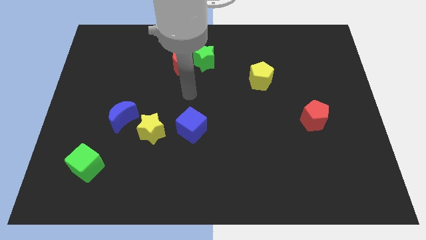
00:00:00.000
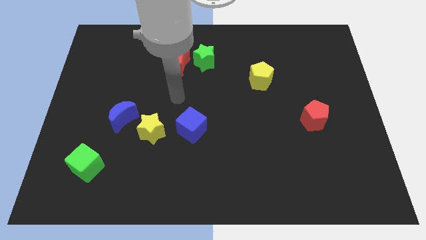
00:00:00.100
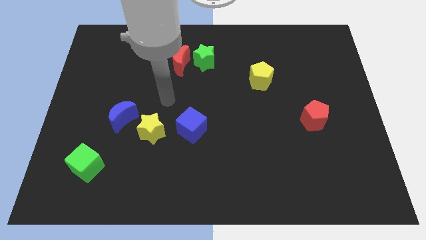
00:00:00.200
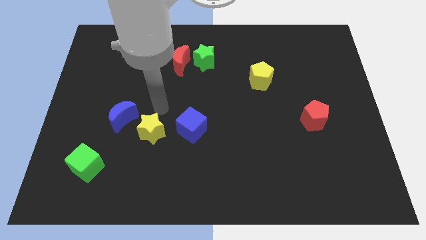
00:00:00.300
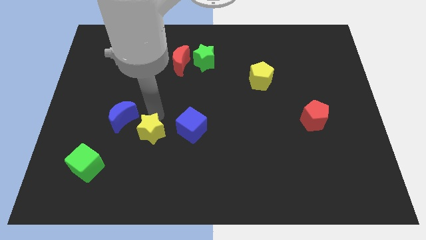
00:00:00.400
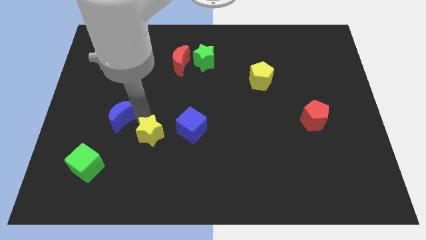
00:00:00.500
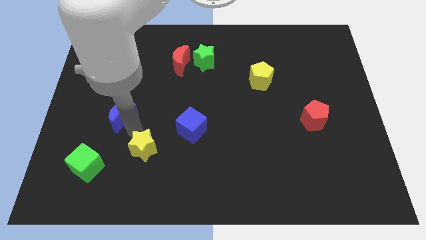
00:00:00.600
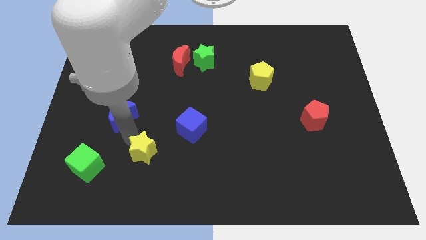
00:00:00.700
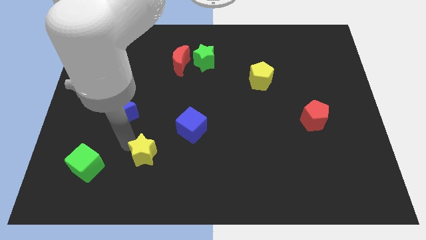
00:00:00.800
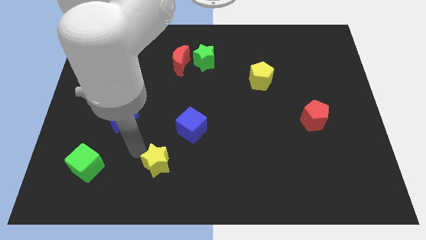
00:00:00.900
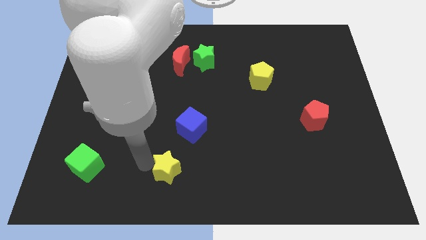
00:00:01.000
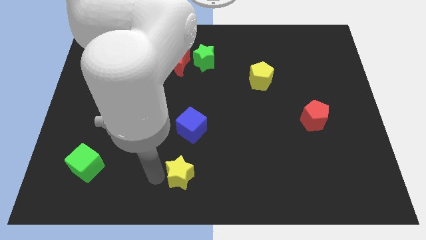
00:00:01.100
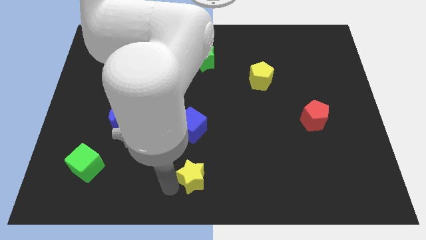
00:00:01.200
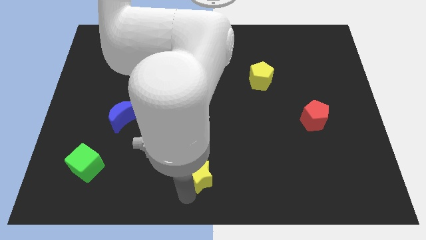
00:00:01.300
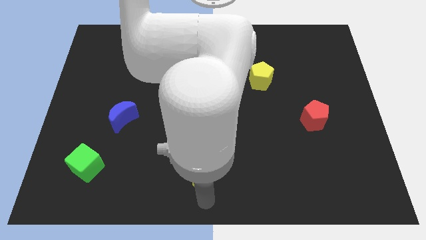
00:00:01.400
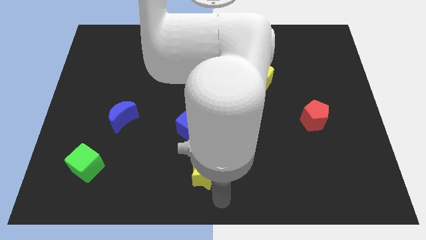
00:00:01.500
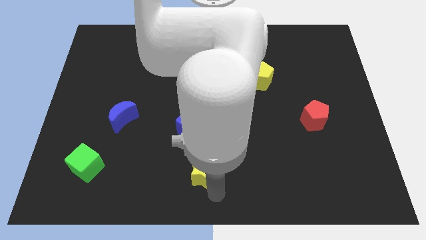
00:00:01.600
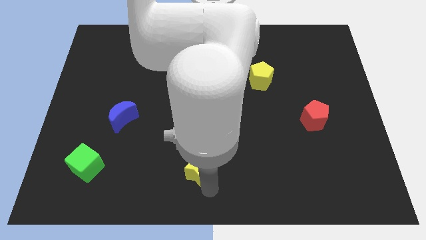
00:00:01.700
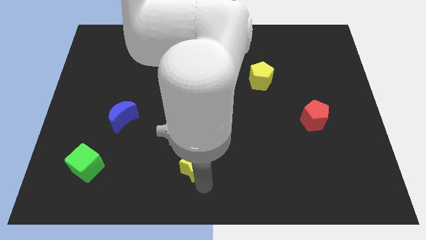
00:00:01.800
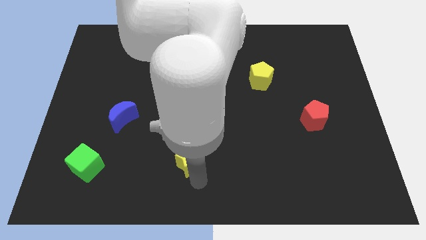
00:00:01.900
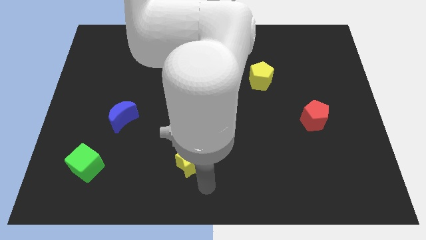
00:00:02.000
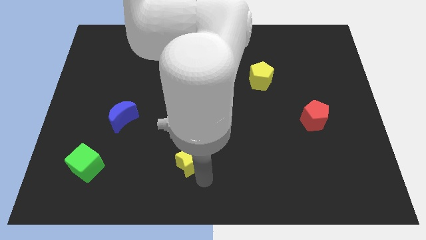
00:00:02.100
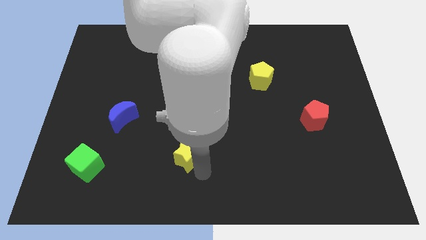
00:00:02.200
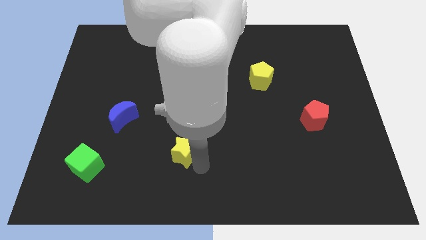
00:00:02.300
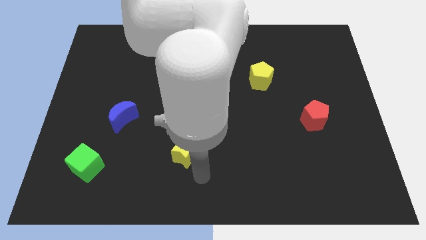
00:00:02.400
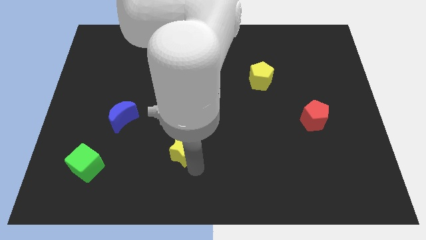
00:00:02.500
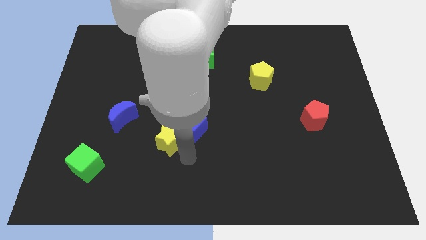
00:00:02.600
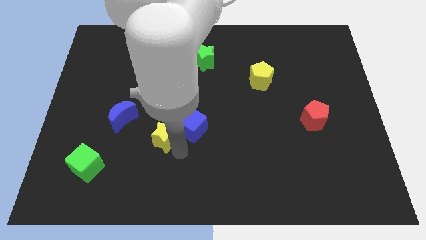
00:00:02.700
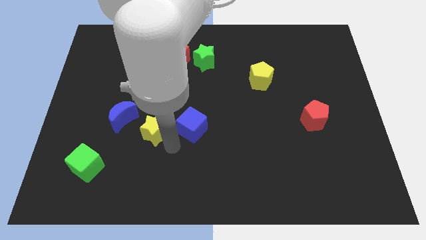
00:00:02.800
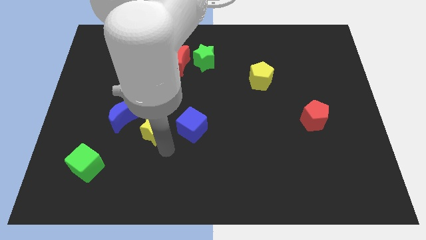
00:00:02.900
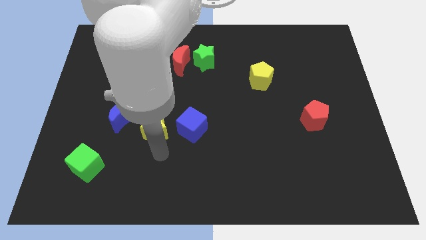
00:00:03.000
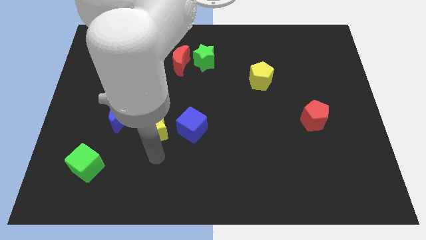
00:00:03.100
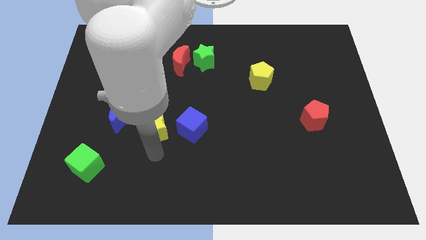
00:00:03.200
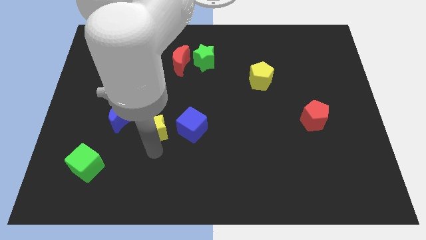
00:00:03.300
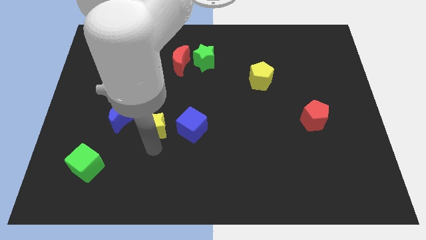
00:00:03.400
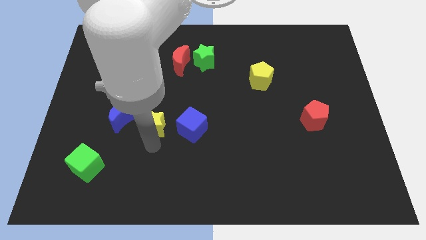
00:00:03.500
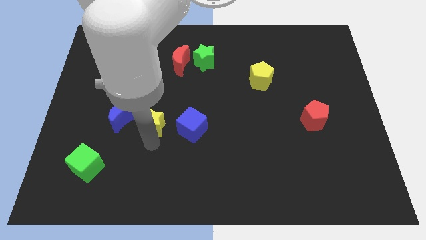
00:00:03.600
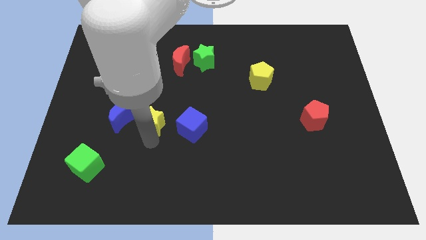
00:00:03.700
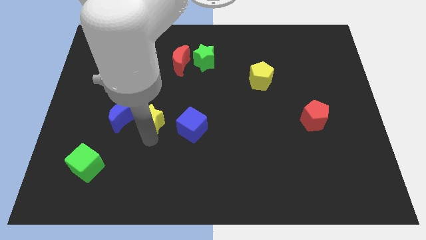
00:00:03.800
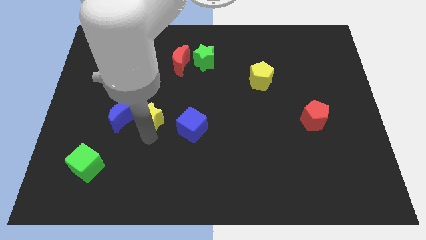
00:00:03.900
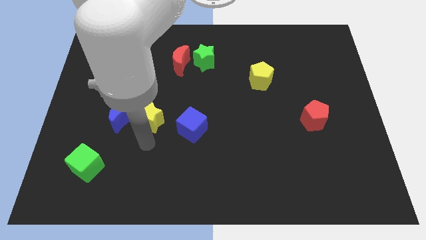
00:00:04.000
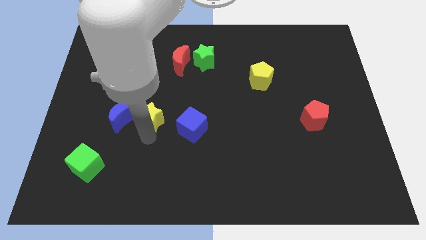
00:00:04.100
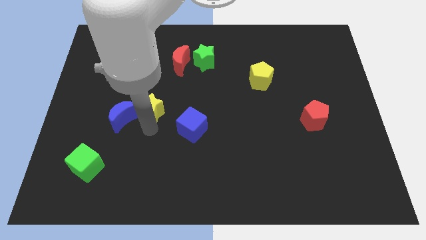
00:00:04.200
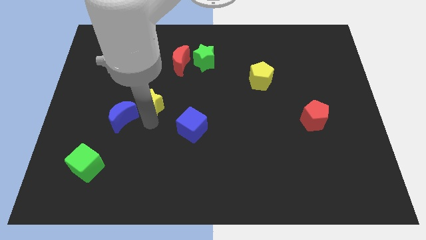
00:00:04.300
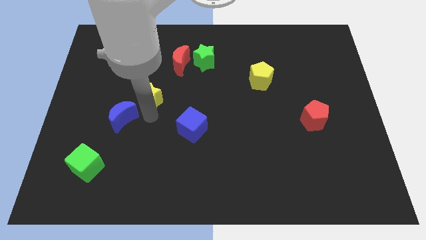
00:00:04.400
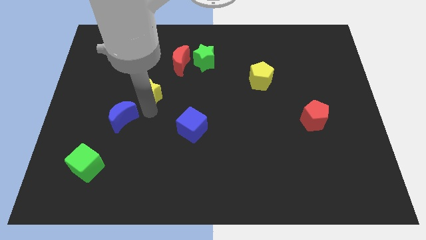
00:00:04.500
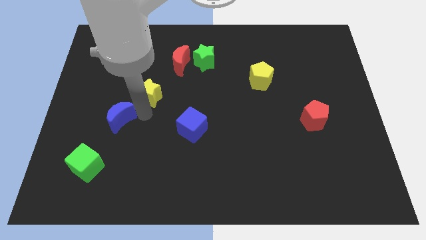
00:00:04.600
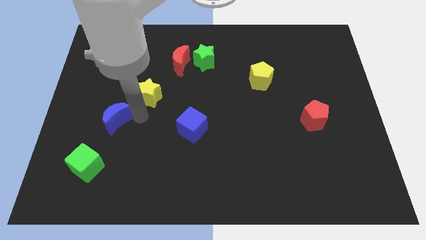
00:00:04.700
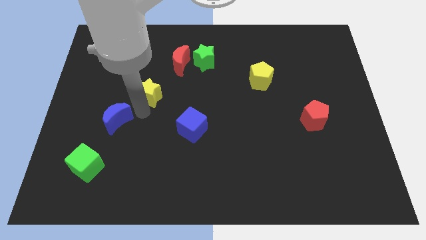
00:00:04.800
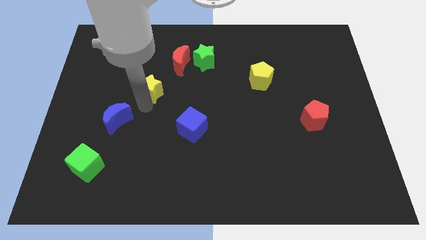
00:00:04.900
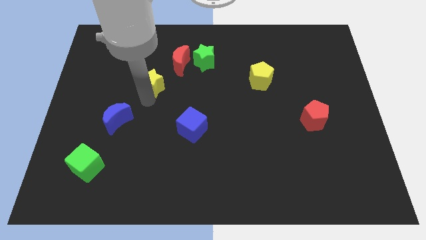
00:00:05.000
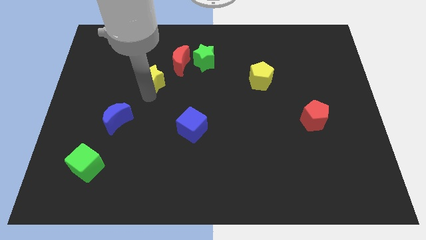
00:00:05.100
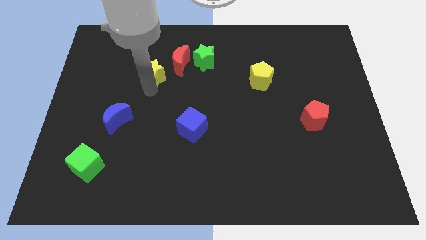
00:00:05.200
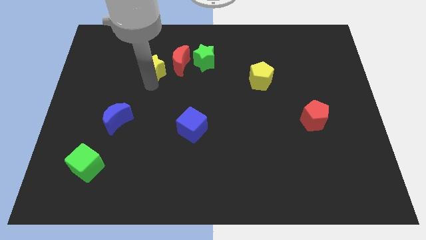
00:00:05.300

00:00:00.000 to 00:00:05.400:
slide the yellow star left of the green star

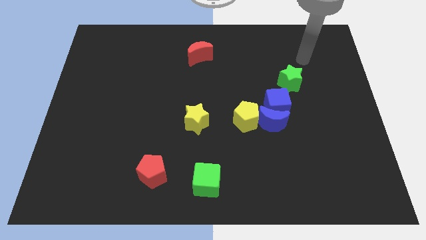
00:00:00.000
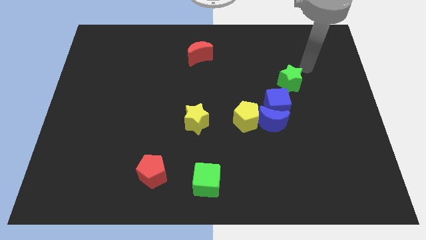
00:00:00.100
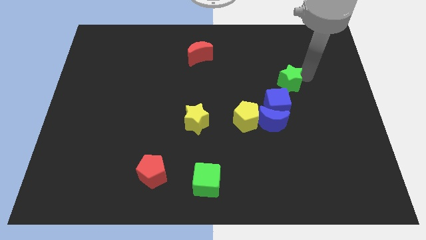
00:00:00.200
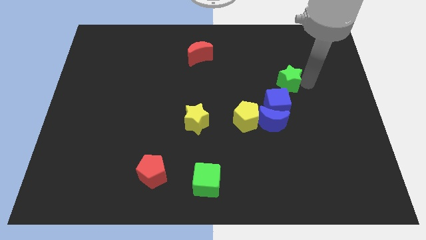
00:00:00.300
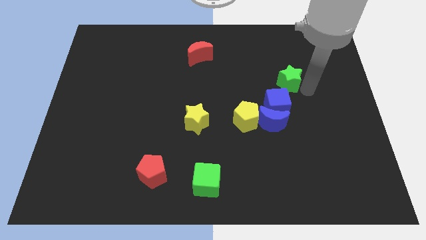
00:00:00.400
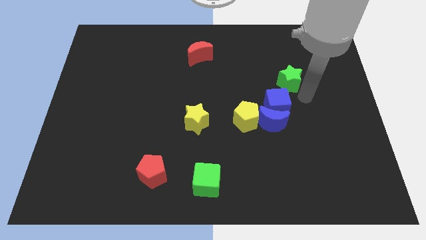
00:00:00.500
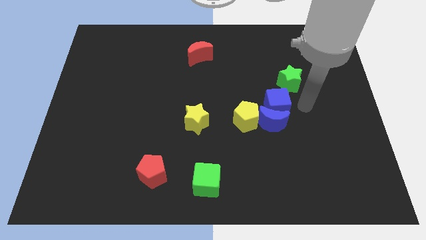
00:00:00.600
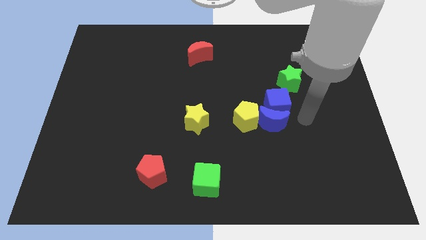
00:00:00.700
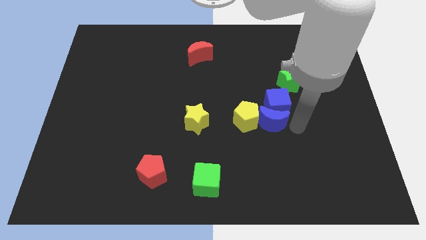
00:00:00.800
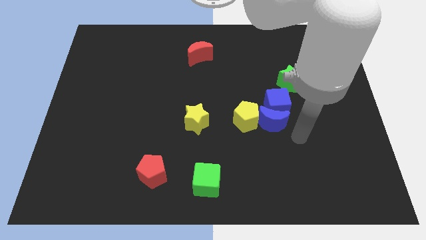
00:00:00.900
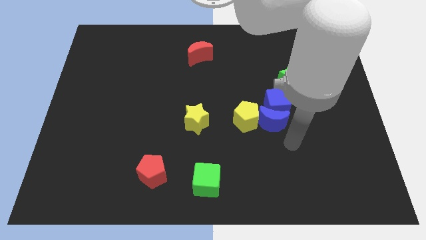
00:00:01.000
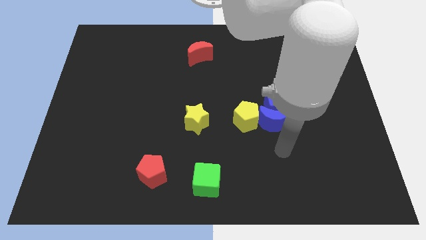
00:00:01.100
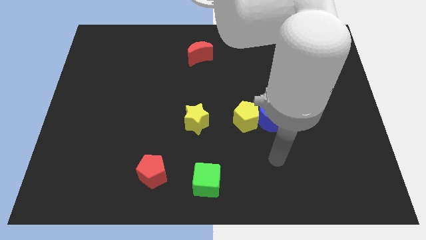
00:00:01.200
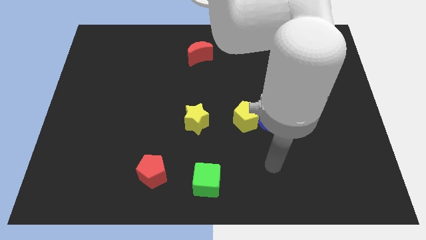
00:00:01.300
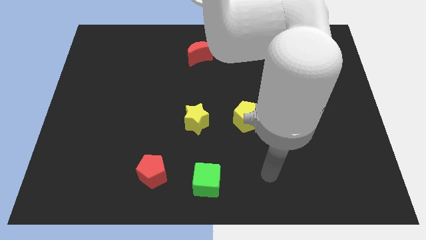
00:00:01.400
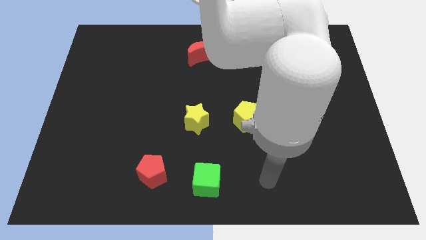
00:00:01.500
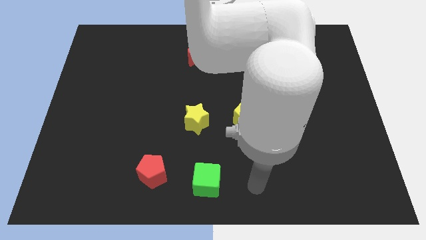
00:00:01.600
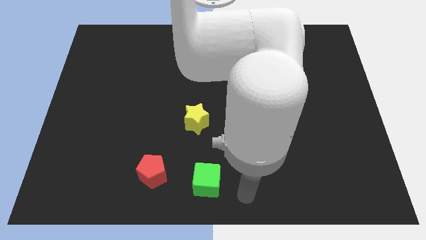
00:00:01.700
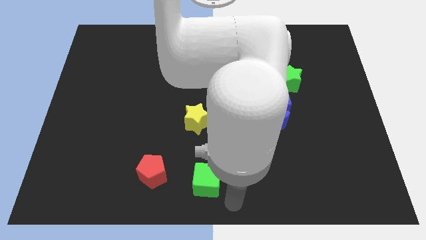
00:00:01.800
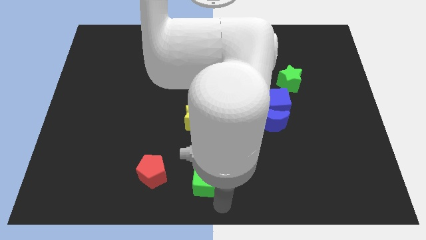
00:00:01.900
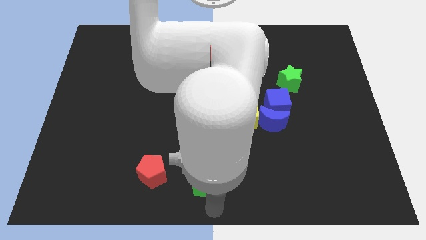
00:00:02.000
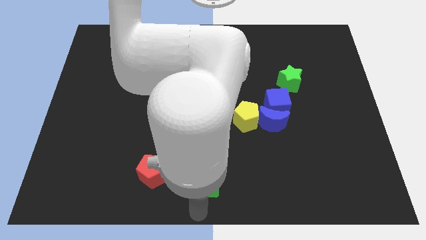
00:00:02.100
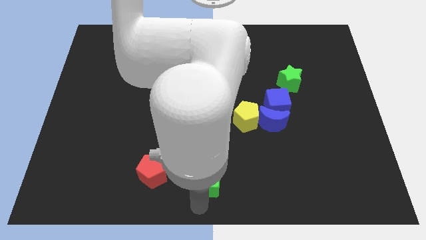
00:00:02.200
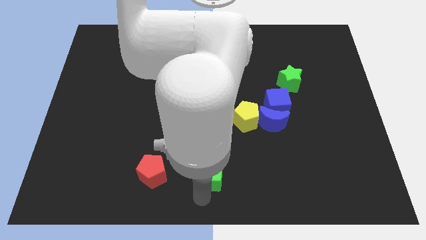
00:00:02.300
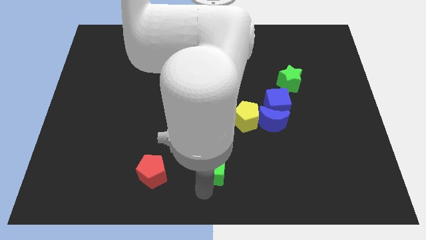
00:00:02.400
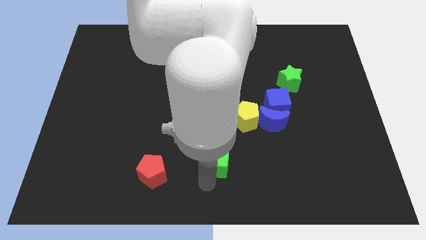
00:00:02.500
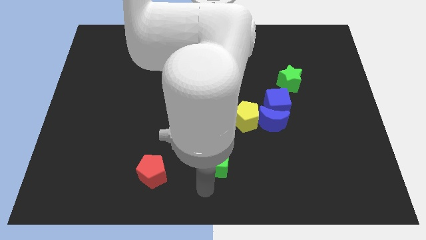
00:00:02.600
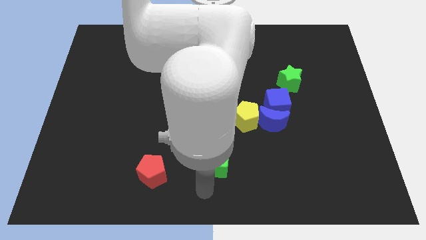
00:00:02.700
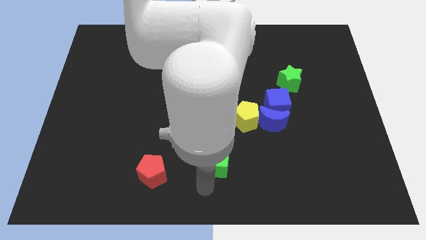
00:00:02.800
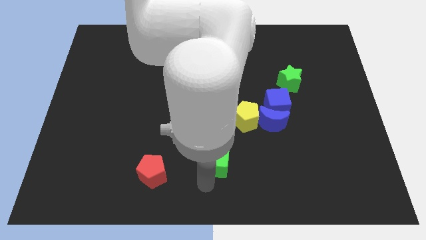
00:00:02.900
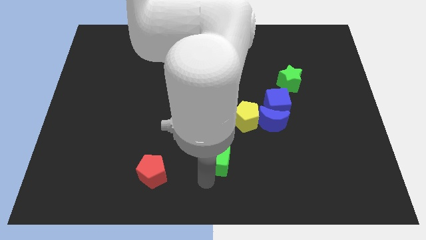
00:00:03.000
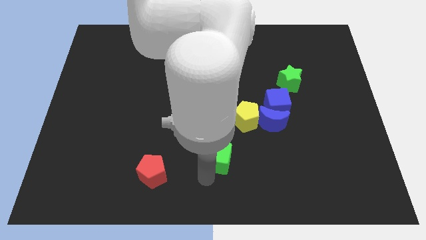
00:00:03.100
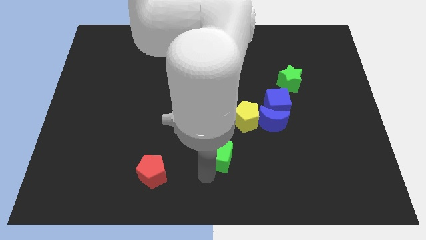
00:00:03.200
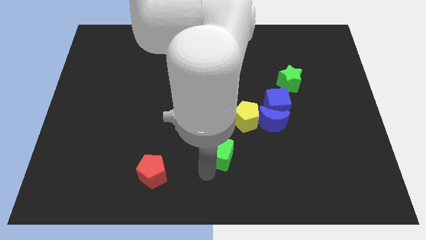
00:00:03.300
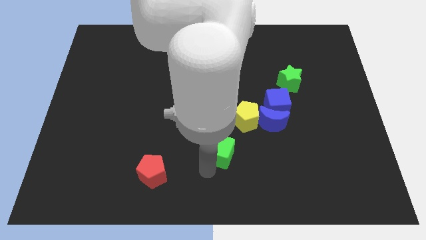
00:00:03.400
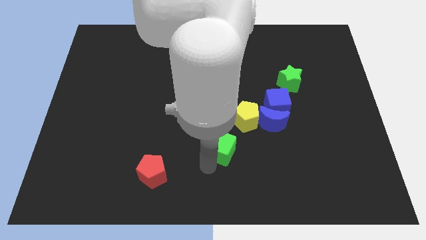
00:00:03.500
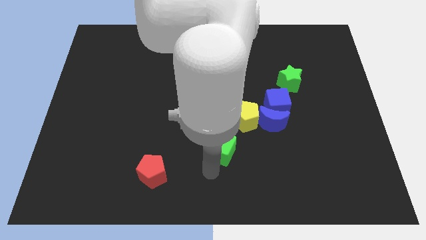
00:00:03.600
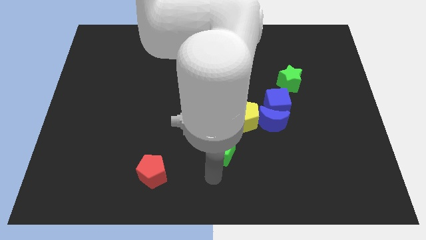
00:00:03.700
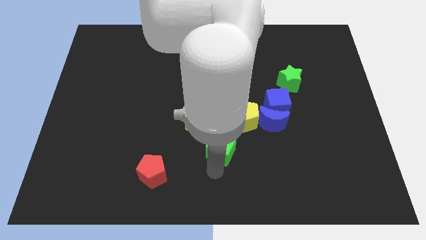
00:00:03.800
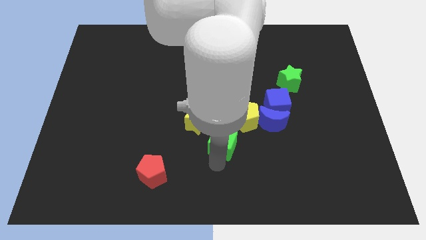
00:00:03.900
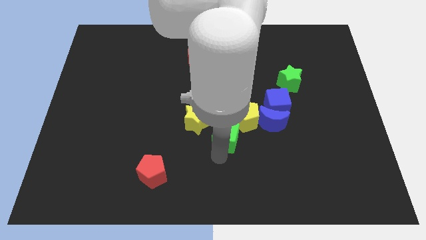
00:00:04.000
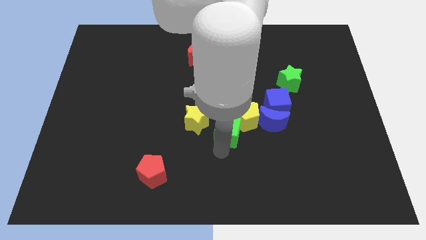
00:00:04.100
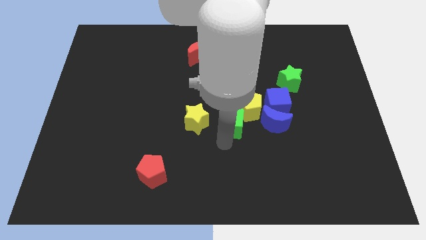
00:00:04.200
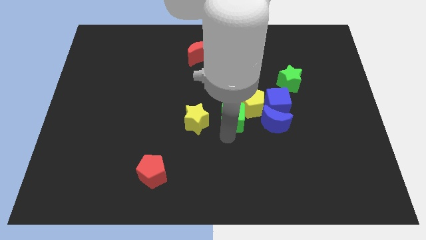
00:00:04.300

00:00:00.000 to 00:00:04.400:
put the green cube just left of the blue cube
